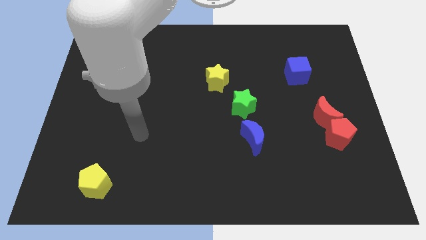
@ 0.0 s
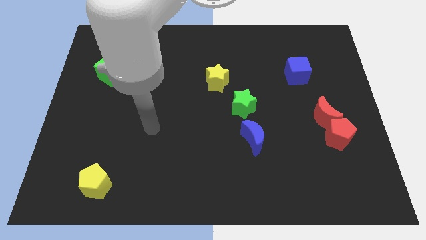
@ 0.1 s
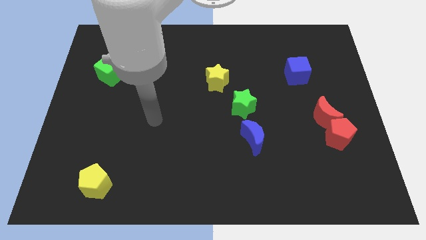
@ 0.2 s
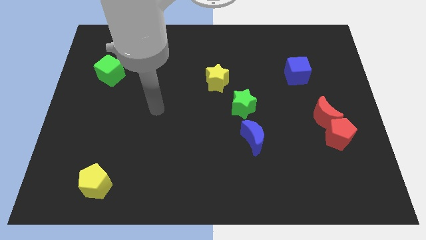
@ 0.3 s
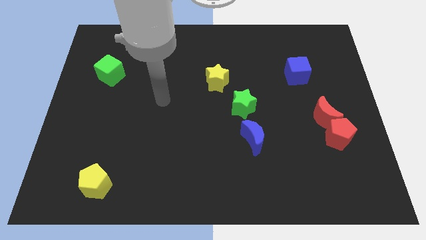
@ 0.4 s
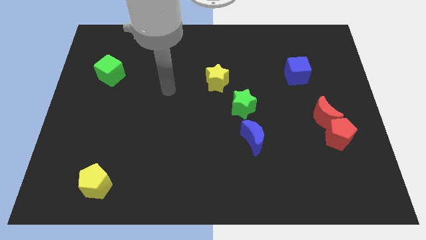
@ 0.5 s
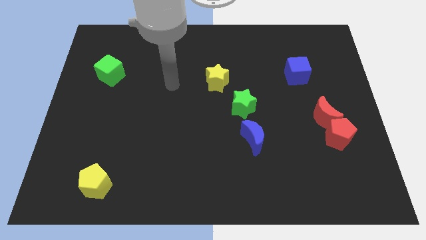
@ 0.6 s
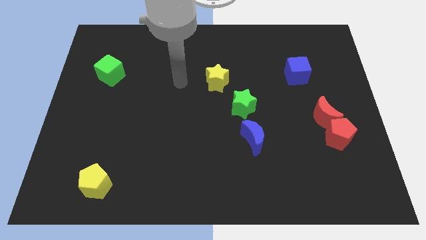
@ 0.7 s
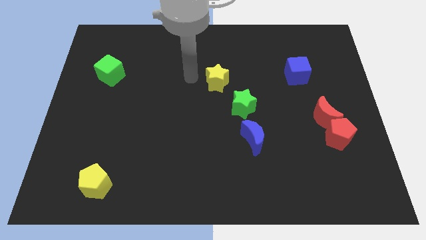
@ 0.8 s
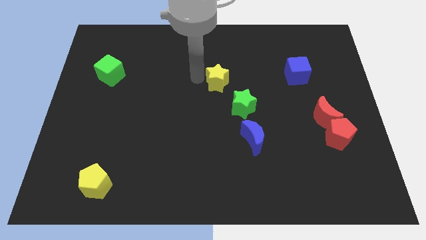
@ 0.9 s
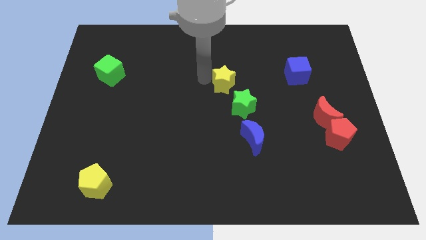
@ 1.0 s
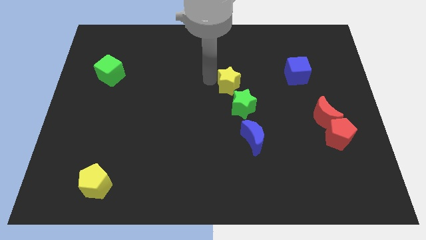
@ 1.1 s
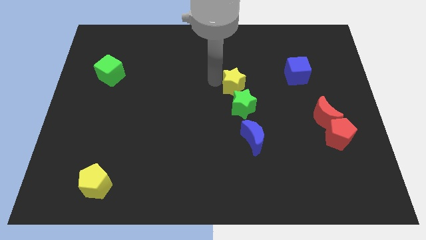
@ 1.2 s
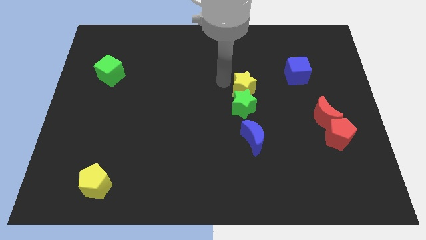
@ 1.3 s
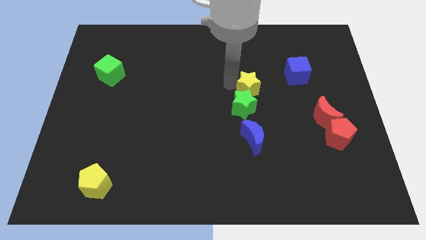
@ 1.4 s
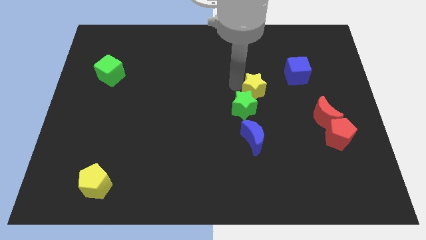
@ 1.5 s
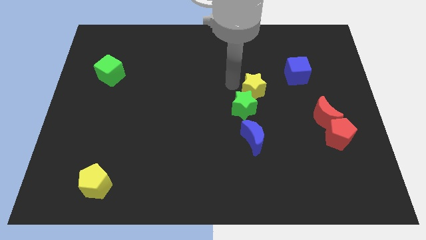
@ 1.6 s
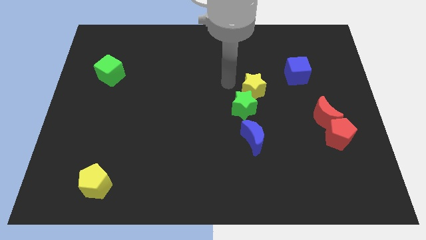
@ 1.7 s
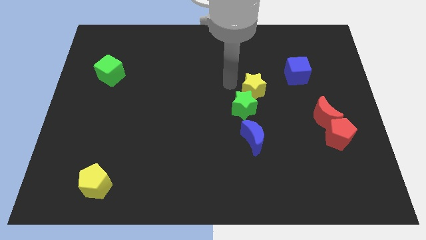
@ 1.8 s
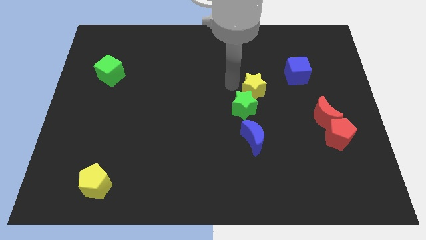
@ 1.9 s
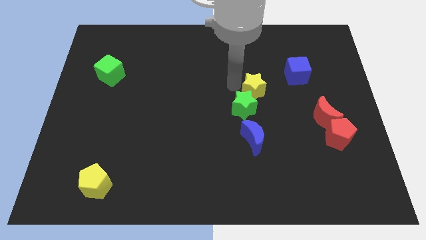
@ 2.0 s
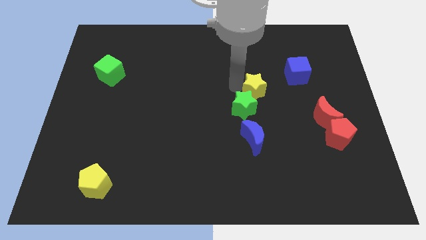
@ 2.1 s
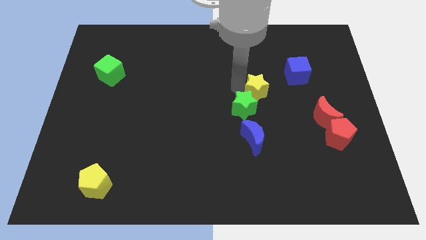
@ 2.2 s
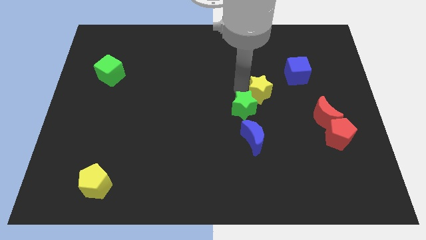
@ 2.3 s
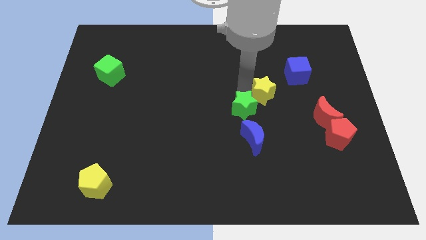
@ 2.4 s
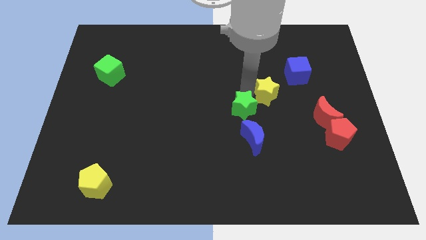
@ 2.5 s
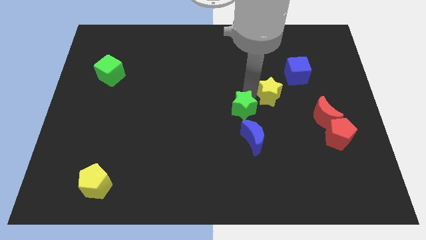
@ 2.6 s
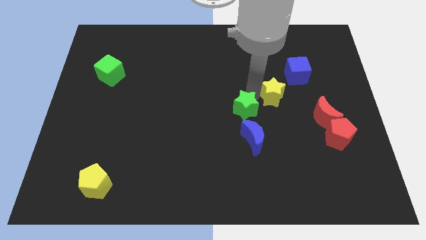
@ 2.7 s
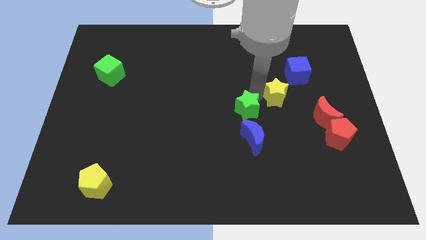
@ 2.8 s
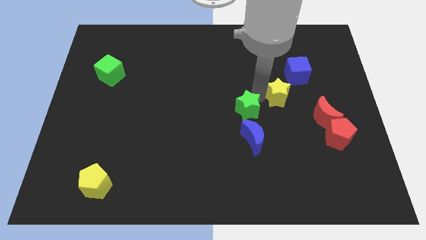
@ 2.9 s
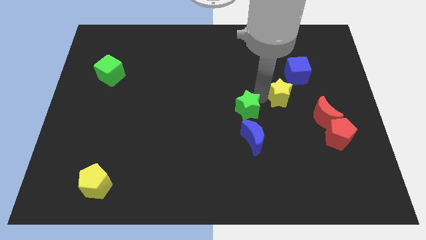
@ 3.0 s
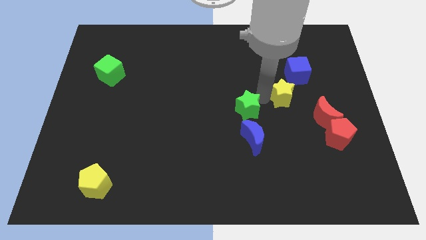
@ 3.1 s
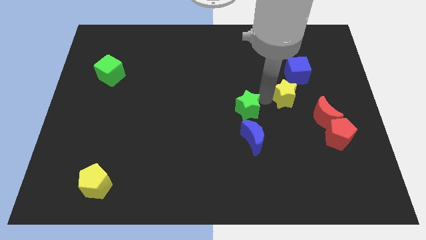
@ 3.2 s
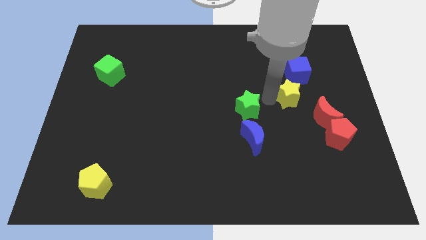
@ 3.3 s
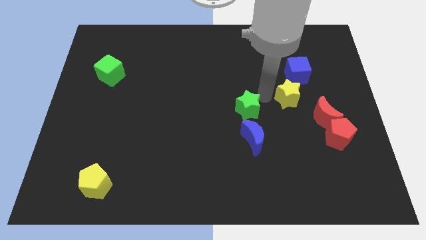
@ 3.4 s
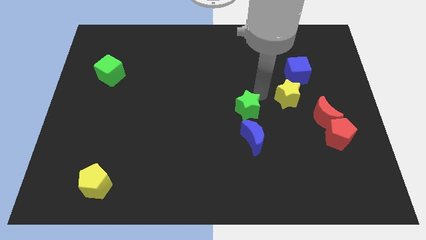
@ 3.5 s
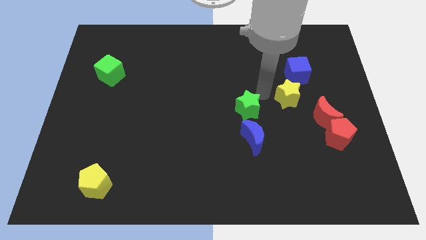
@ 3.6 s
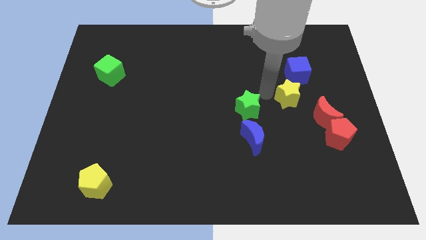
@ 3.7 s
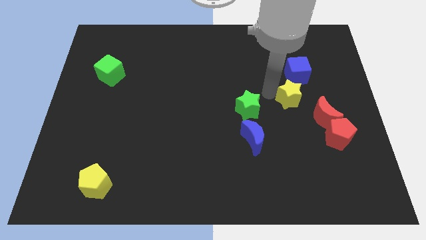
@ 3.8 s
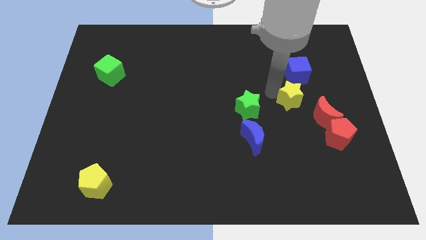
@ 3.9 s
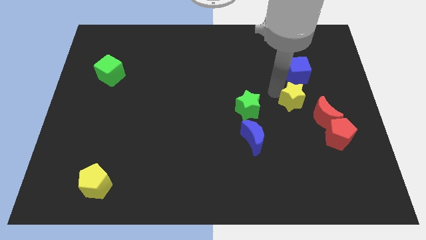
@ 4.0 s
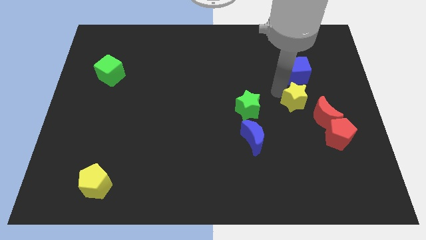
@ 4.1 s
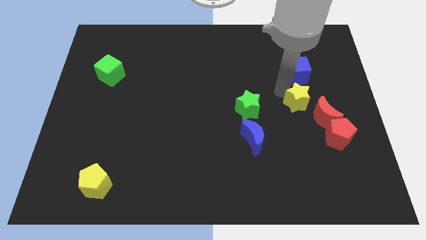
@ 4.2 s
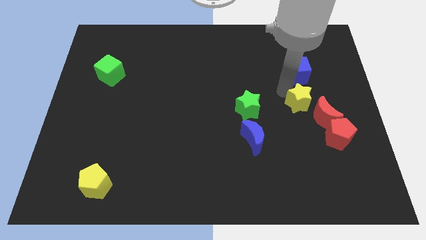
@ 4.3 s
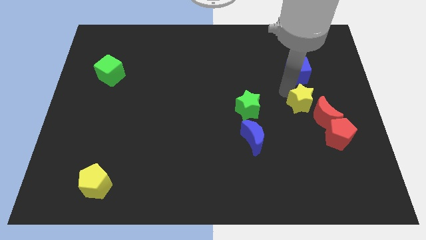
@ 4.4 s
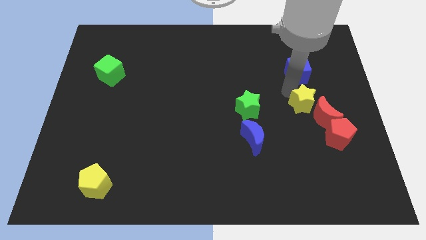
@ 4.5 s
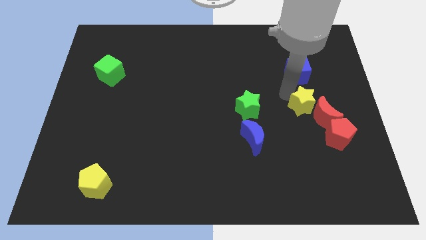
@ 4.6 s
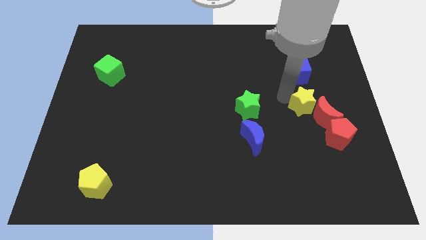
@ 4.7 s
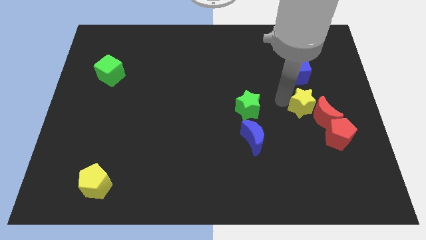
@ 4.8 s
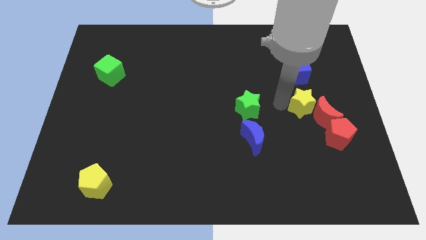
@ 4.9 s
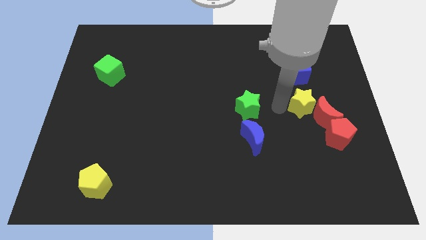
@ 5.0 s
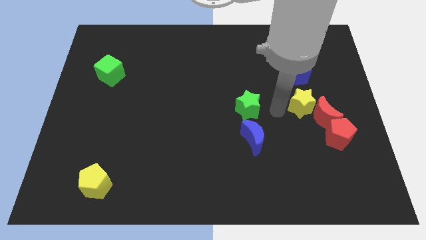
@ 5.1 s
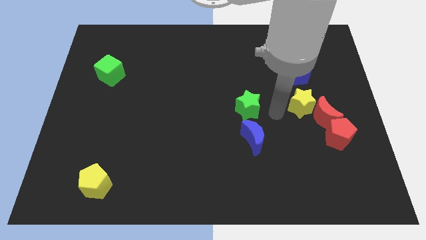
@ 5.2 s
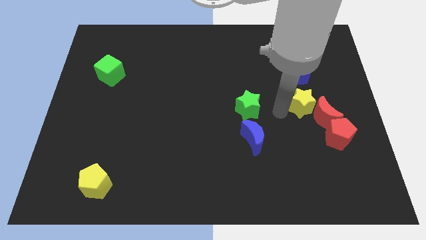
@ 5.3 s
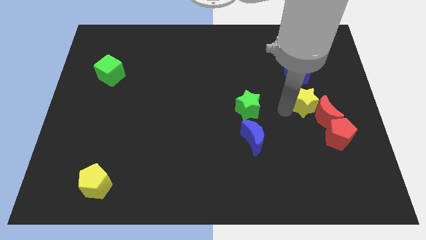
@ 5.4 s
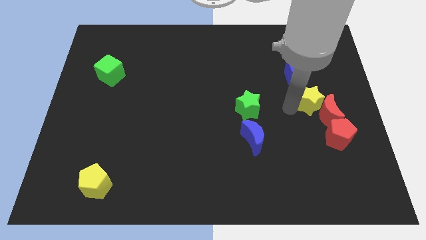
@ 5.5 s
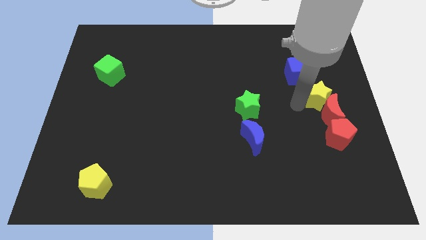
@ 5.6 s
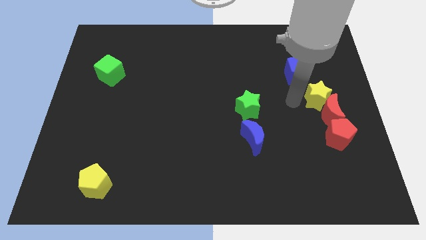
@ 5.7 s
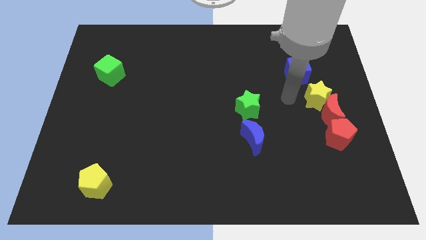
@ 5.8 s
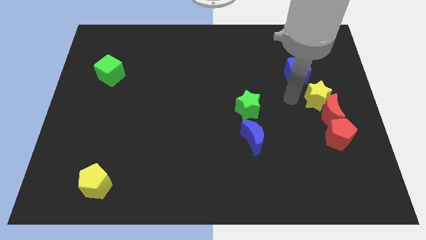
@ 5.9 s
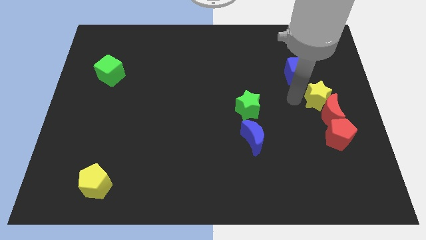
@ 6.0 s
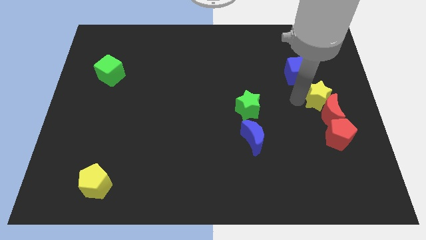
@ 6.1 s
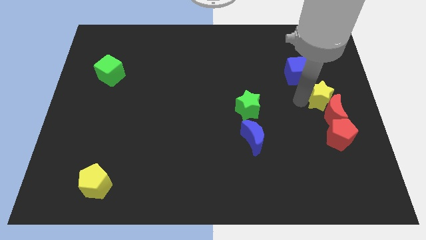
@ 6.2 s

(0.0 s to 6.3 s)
slide the yellow star to the right side
